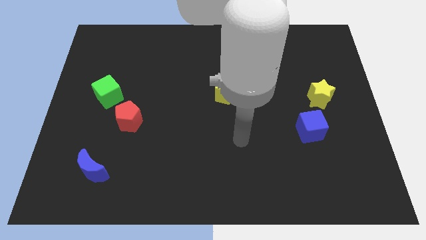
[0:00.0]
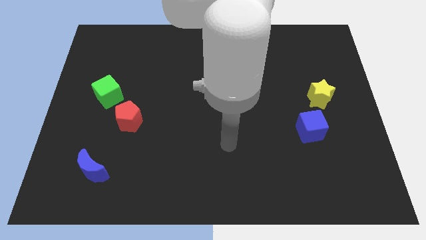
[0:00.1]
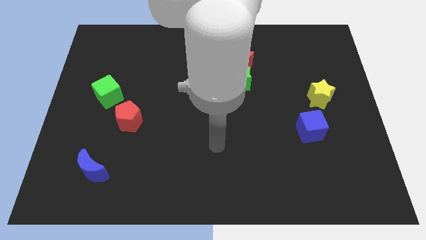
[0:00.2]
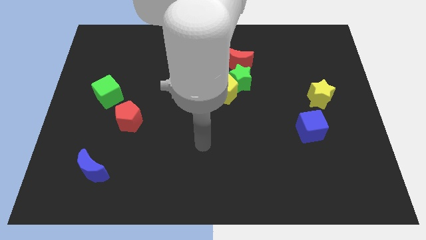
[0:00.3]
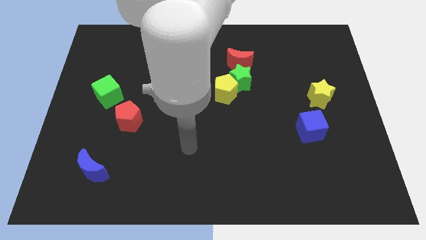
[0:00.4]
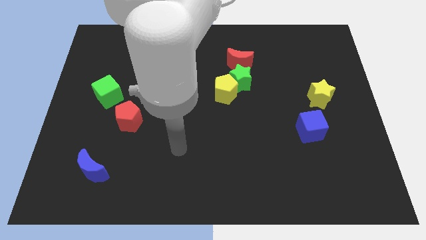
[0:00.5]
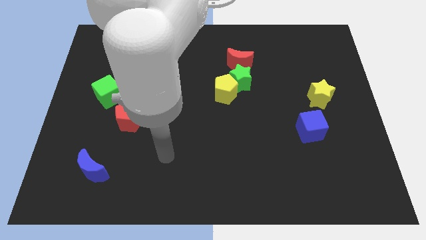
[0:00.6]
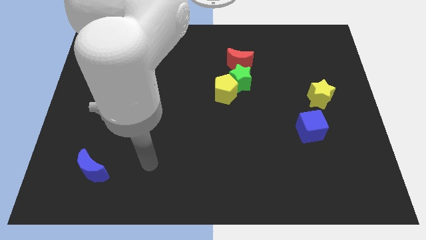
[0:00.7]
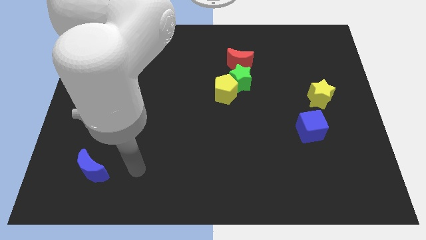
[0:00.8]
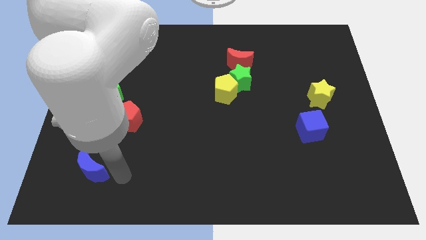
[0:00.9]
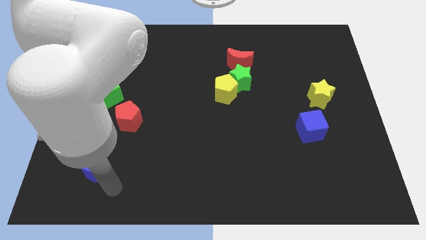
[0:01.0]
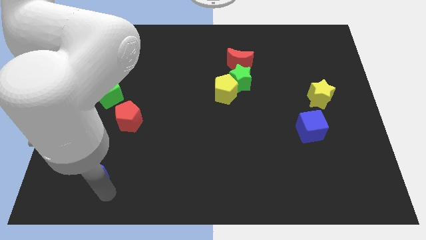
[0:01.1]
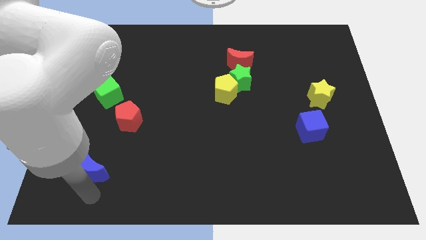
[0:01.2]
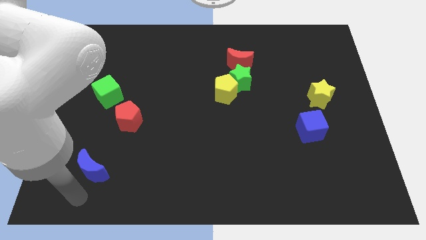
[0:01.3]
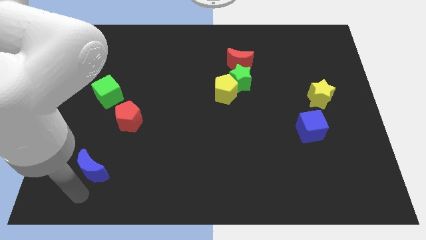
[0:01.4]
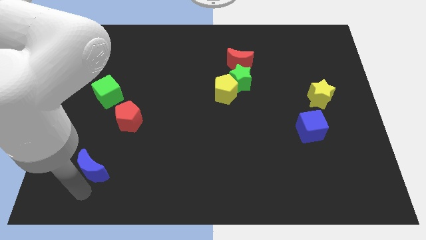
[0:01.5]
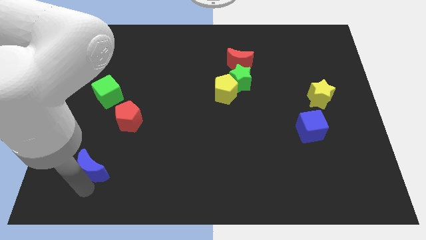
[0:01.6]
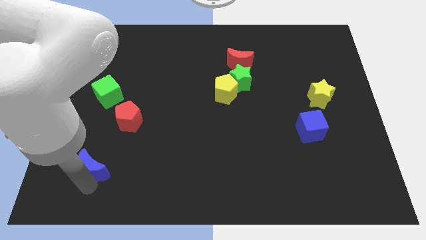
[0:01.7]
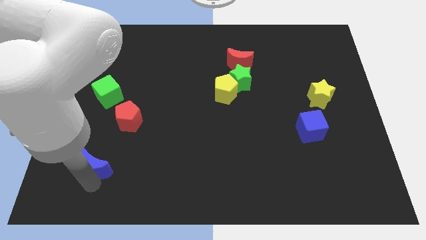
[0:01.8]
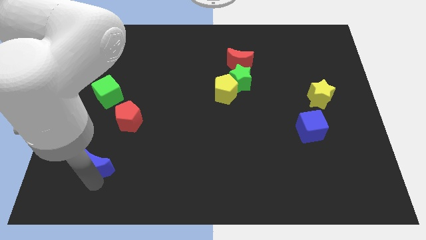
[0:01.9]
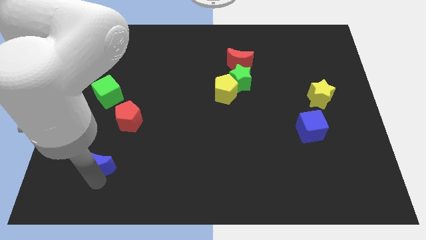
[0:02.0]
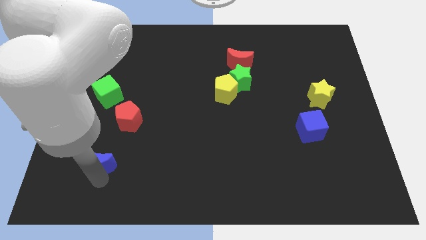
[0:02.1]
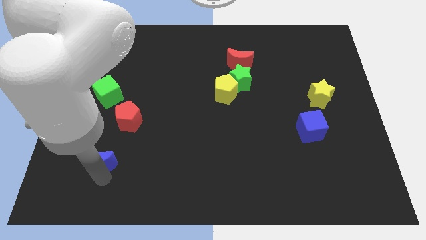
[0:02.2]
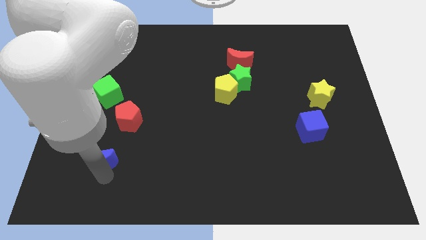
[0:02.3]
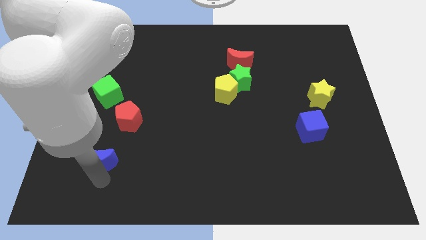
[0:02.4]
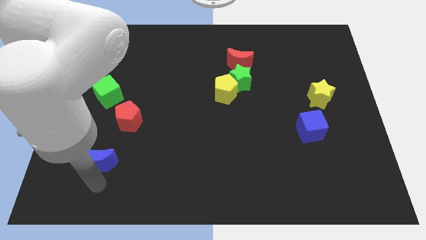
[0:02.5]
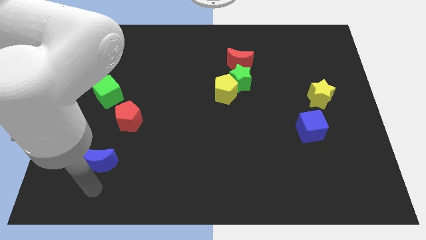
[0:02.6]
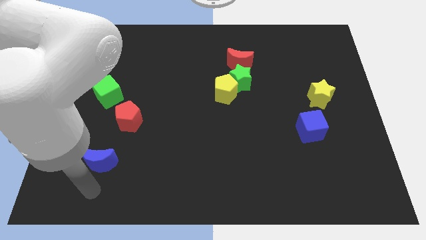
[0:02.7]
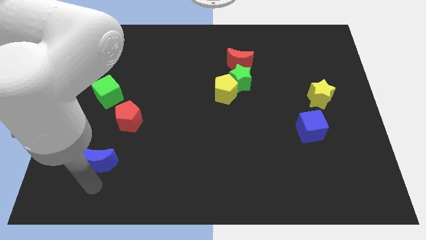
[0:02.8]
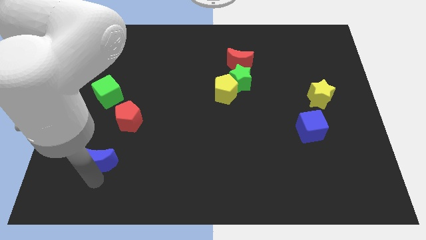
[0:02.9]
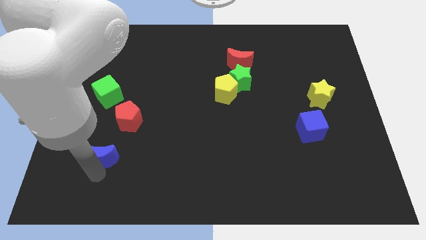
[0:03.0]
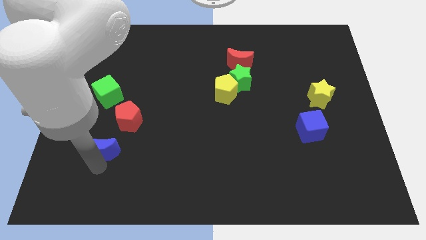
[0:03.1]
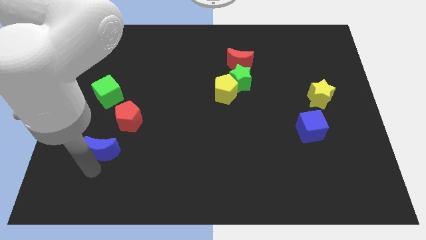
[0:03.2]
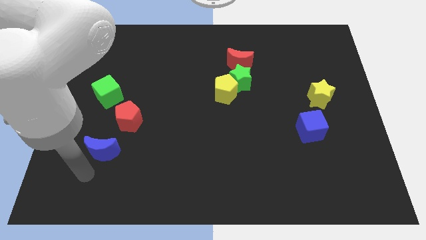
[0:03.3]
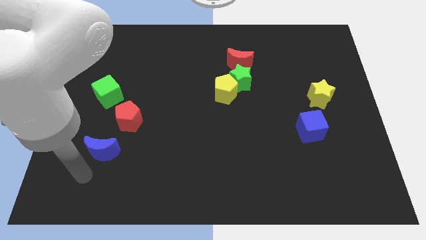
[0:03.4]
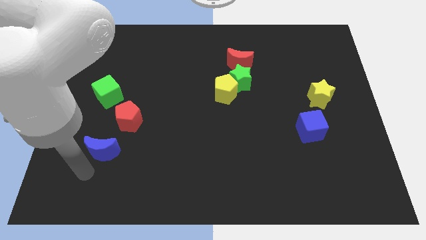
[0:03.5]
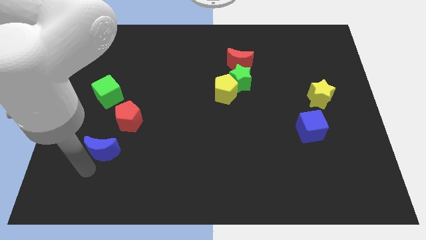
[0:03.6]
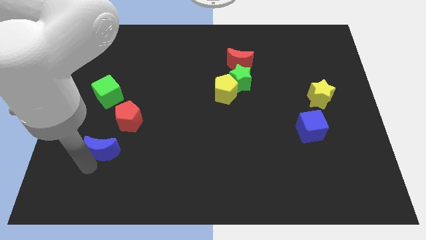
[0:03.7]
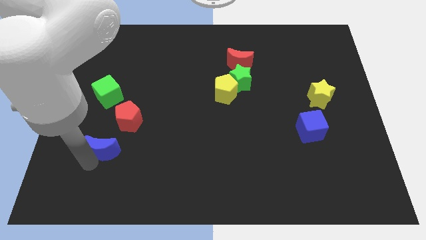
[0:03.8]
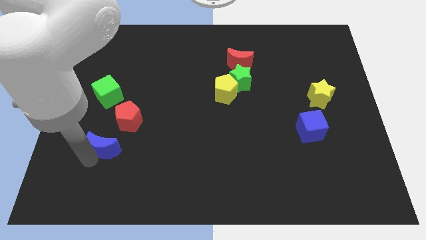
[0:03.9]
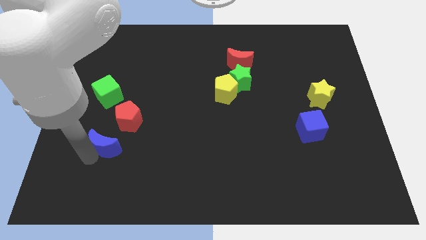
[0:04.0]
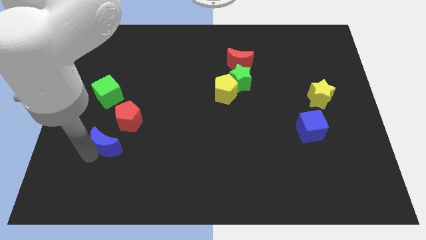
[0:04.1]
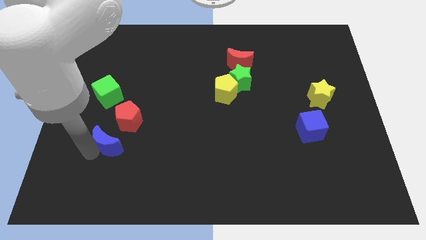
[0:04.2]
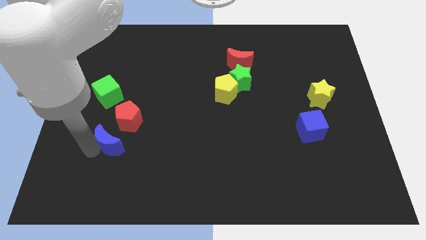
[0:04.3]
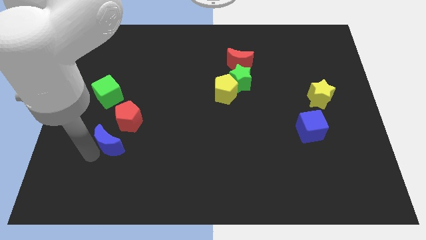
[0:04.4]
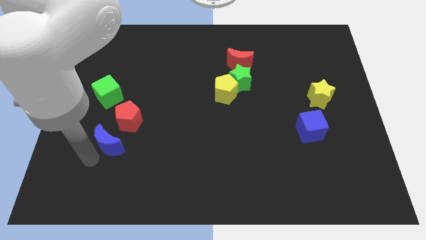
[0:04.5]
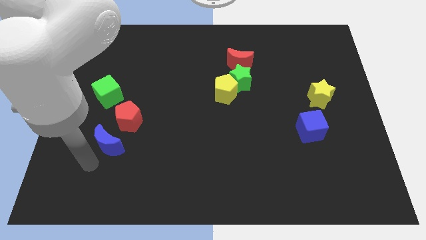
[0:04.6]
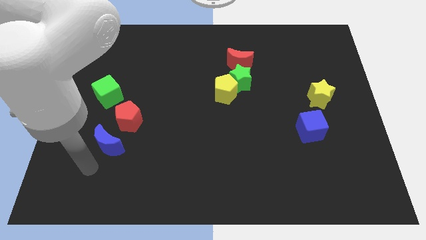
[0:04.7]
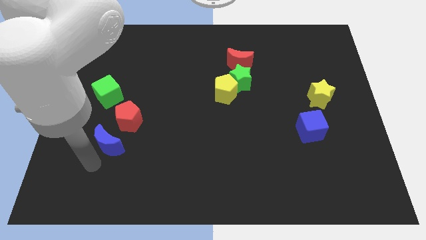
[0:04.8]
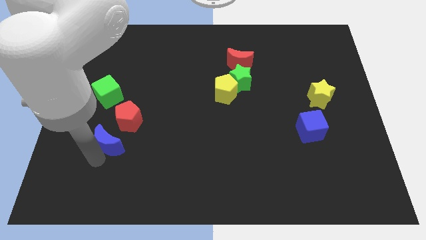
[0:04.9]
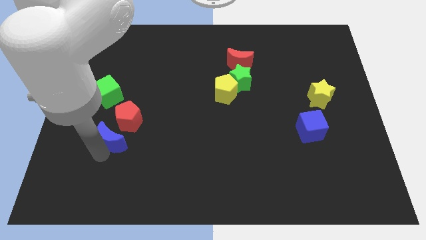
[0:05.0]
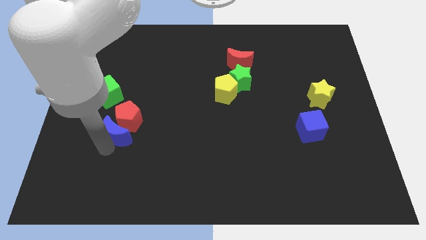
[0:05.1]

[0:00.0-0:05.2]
slide the blue moon towards the red pentagon

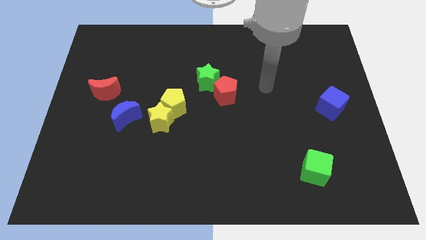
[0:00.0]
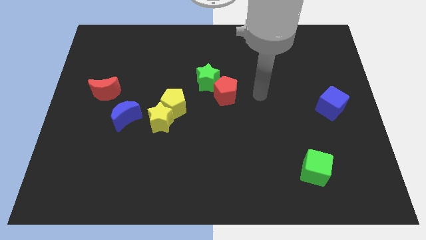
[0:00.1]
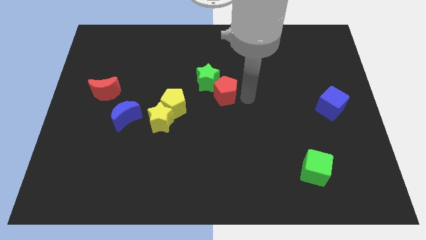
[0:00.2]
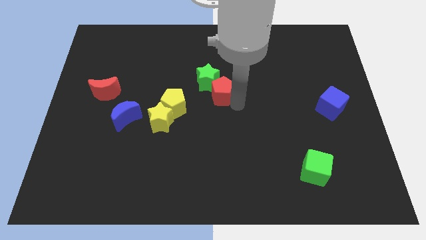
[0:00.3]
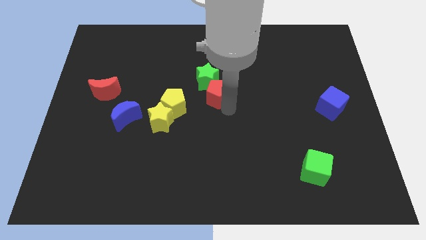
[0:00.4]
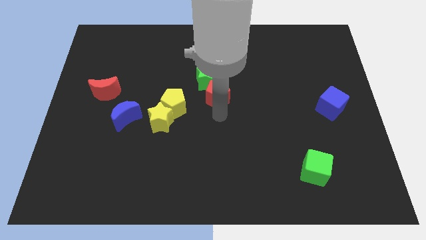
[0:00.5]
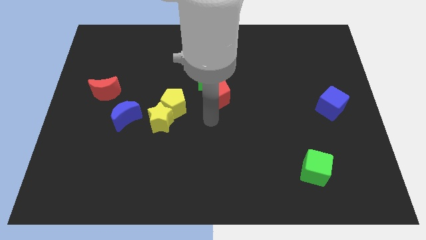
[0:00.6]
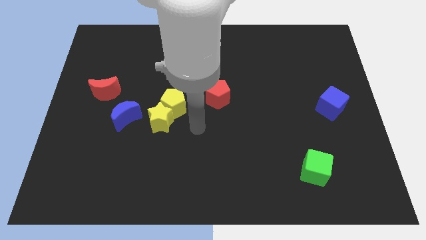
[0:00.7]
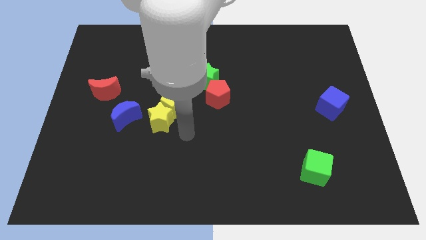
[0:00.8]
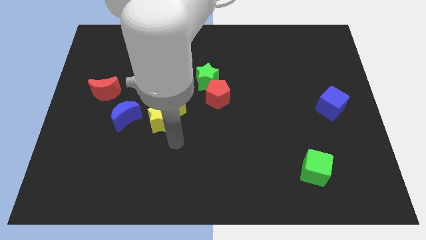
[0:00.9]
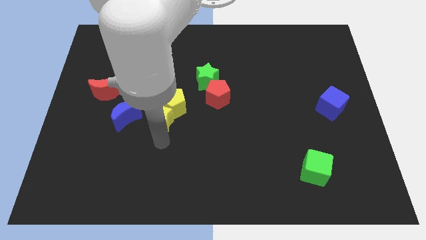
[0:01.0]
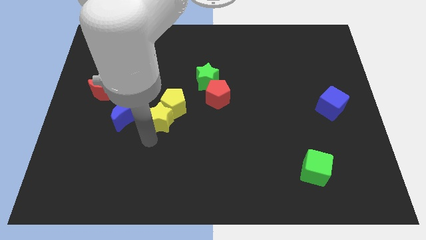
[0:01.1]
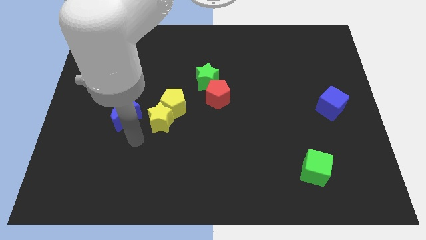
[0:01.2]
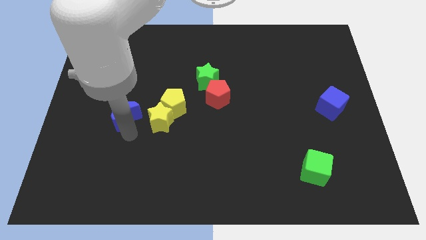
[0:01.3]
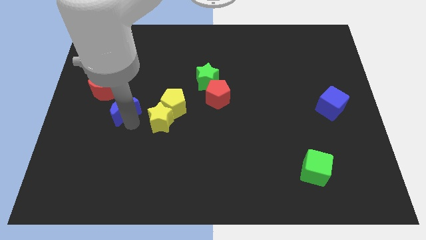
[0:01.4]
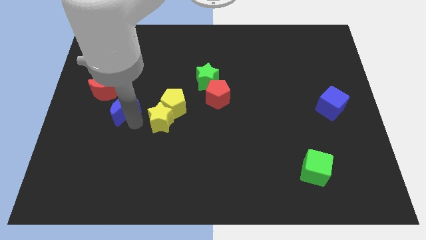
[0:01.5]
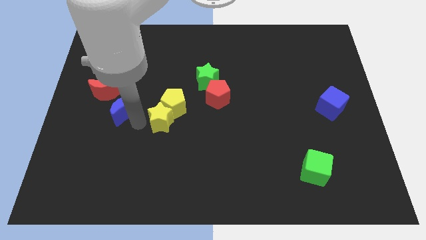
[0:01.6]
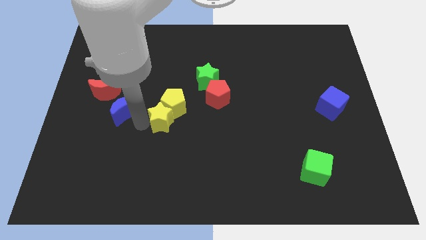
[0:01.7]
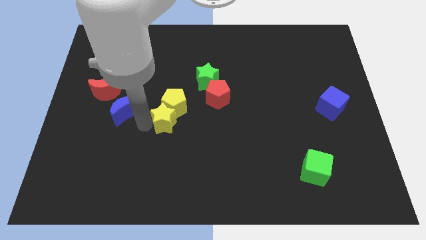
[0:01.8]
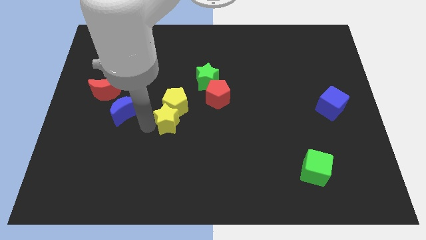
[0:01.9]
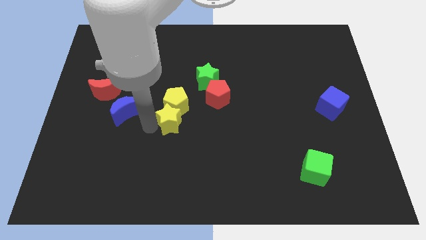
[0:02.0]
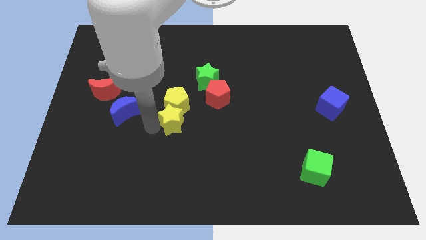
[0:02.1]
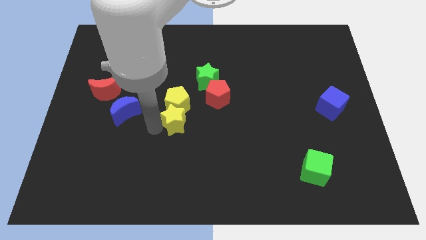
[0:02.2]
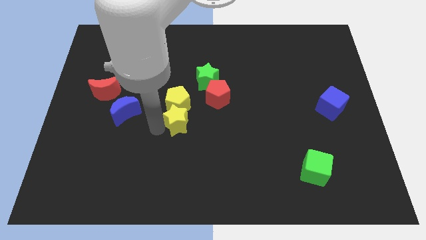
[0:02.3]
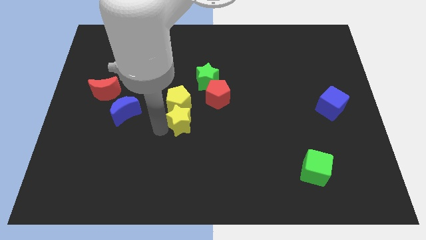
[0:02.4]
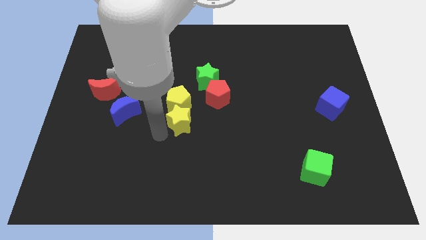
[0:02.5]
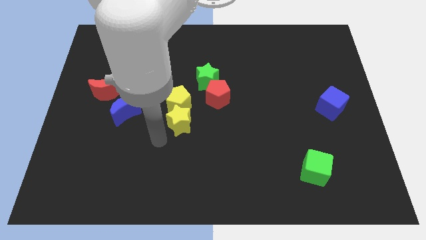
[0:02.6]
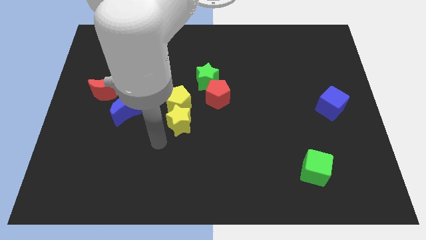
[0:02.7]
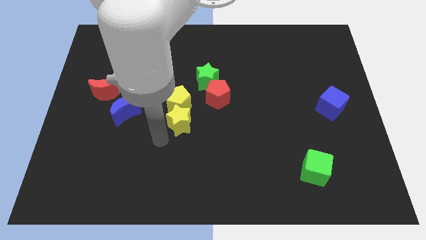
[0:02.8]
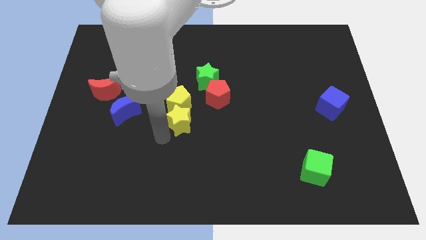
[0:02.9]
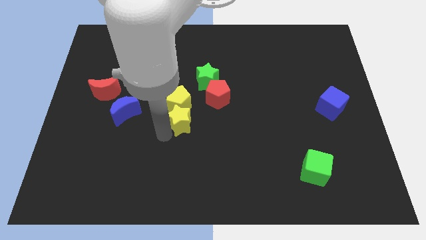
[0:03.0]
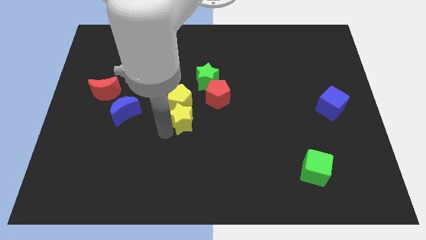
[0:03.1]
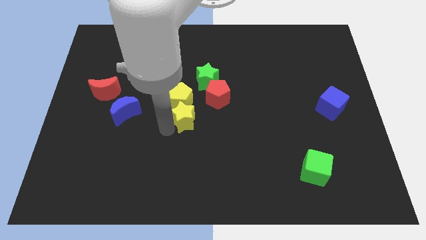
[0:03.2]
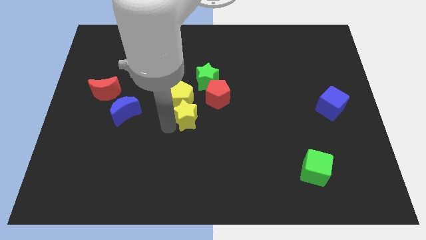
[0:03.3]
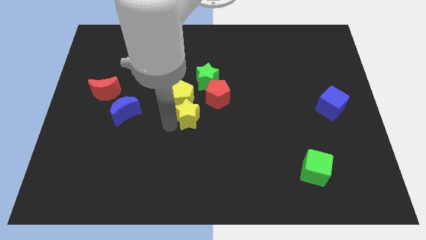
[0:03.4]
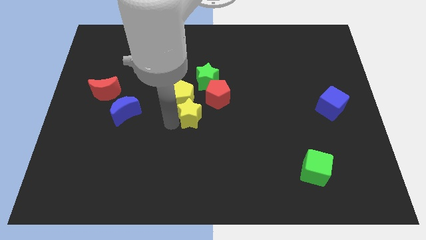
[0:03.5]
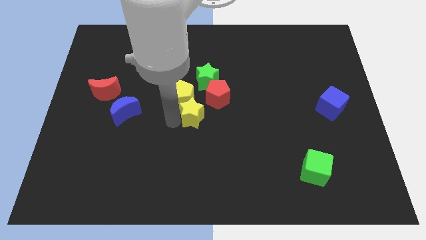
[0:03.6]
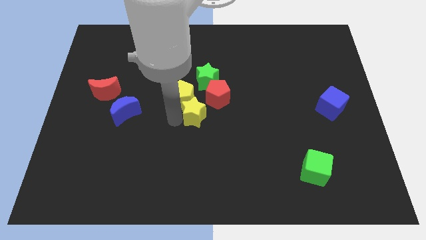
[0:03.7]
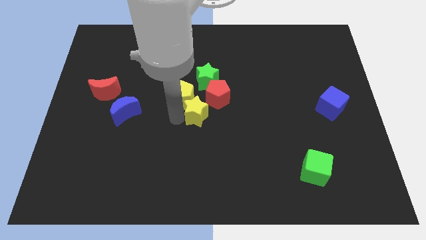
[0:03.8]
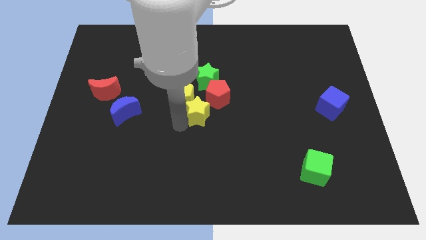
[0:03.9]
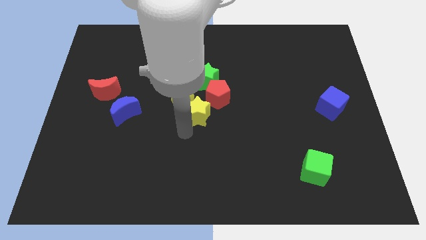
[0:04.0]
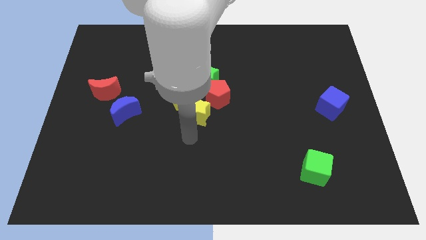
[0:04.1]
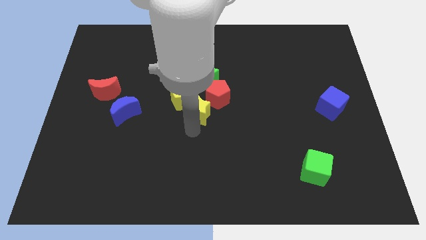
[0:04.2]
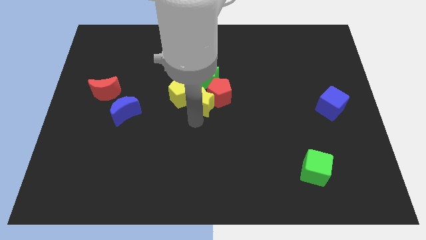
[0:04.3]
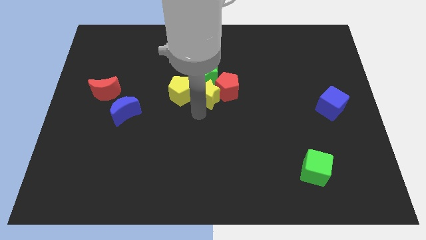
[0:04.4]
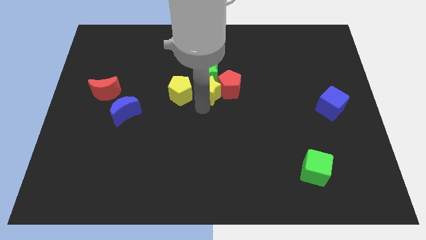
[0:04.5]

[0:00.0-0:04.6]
push the yellow star to the green star
